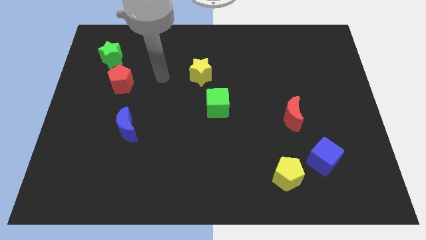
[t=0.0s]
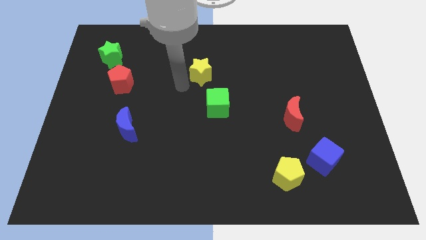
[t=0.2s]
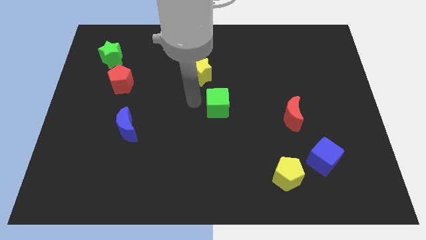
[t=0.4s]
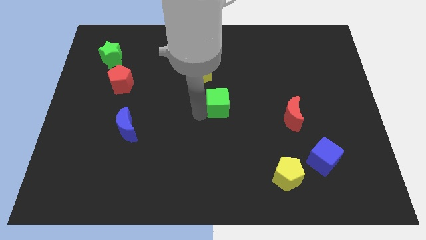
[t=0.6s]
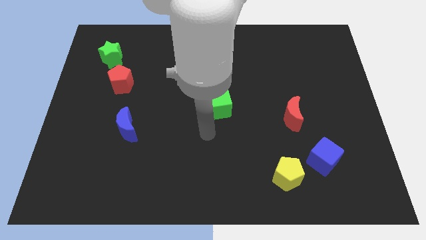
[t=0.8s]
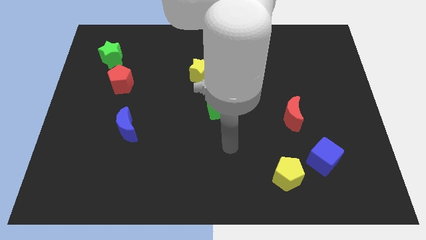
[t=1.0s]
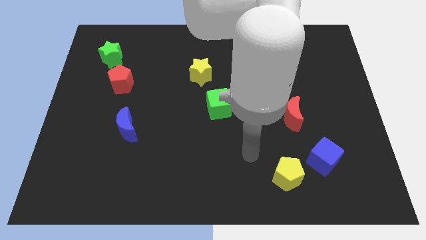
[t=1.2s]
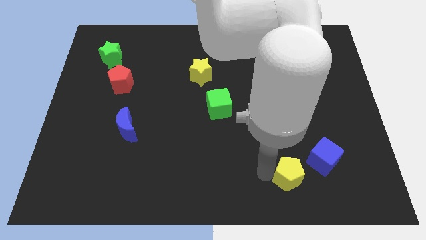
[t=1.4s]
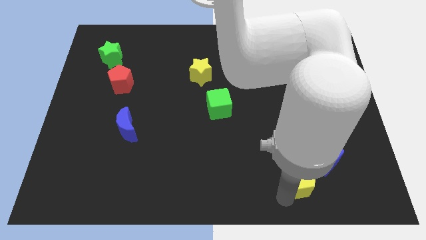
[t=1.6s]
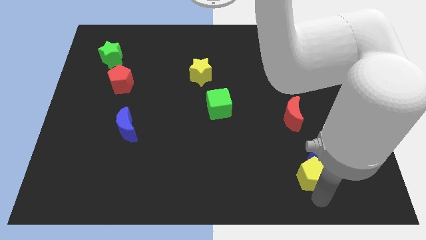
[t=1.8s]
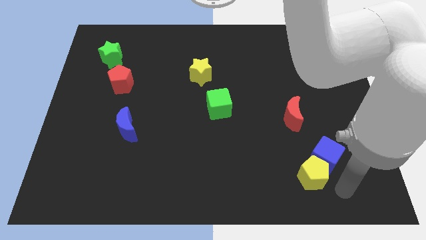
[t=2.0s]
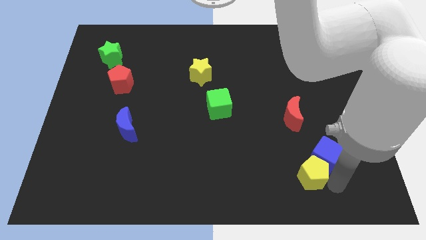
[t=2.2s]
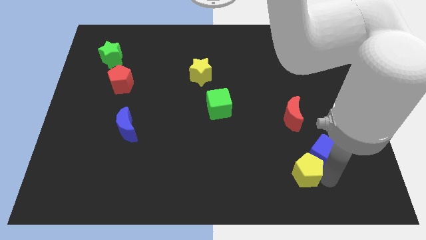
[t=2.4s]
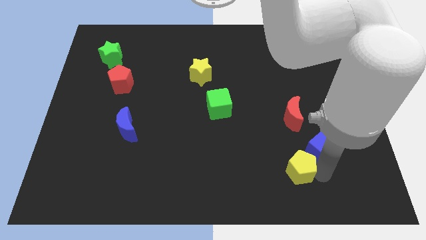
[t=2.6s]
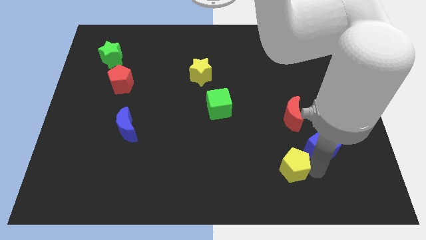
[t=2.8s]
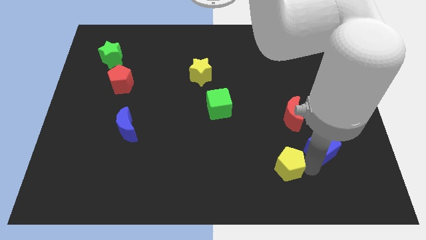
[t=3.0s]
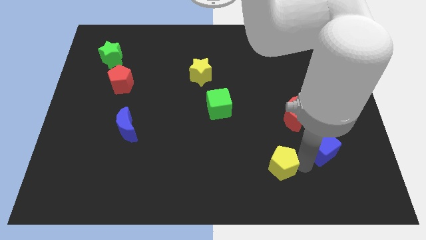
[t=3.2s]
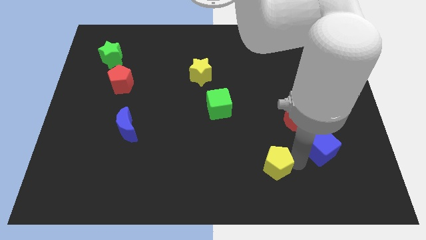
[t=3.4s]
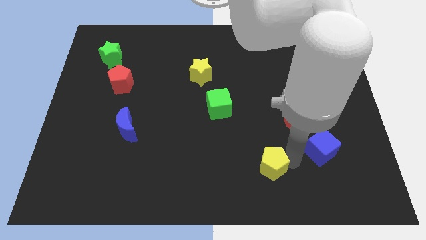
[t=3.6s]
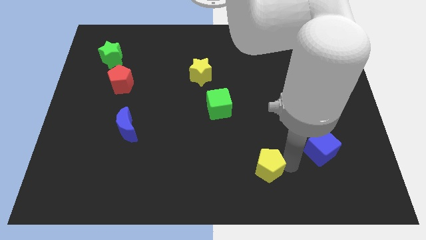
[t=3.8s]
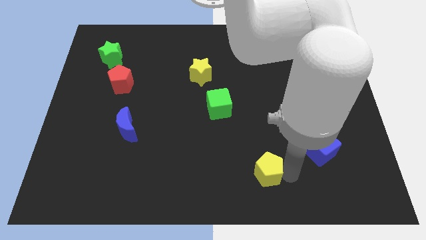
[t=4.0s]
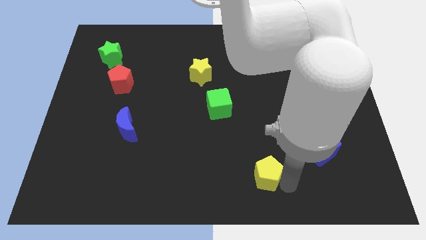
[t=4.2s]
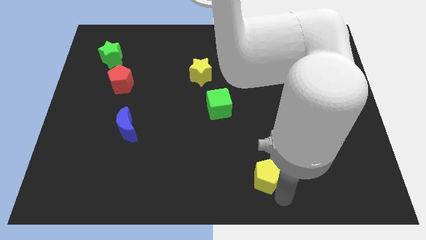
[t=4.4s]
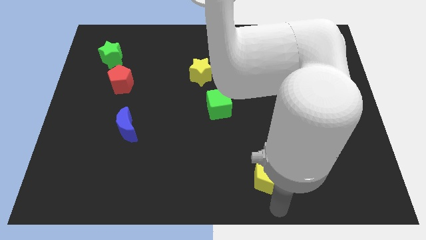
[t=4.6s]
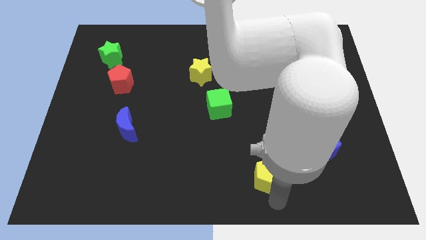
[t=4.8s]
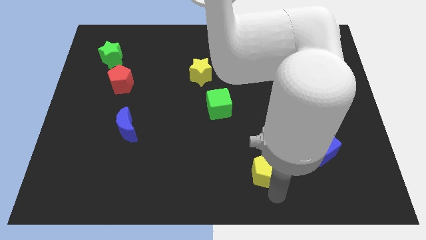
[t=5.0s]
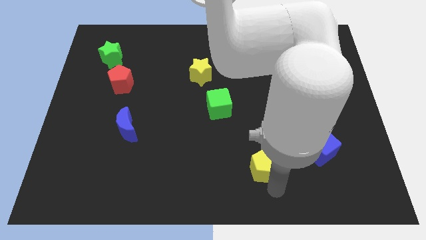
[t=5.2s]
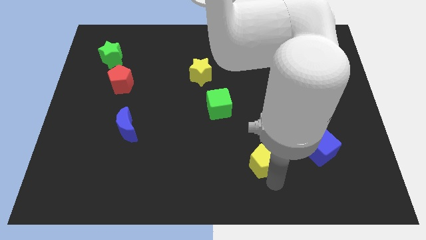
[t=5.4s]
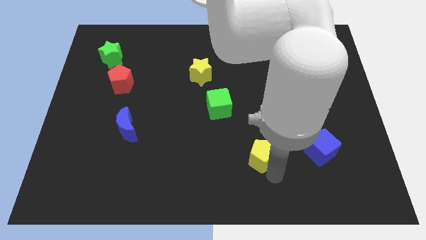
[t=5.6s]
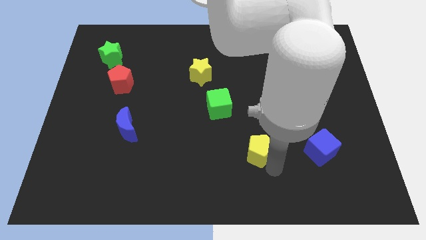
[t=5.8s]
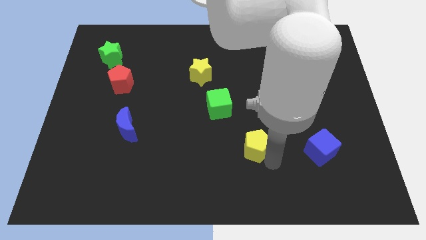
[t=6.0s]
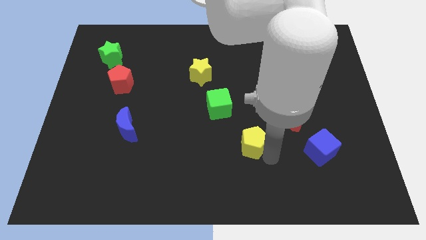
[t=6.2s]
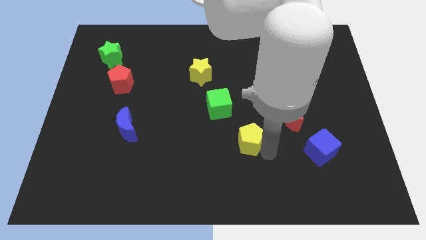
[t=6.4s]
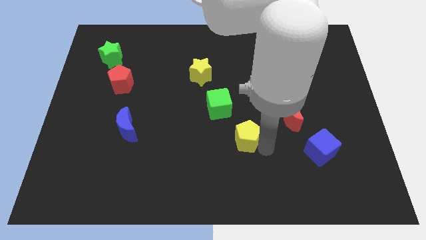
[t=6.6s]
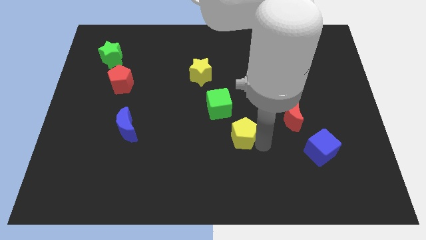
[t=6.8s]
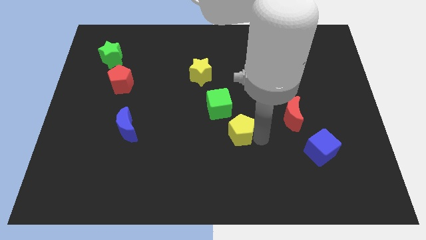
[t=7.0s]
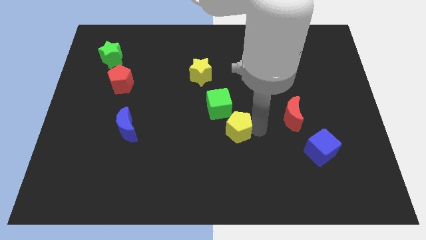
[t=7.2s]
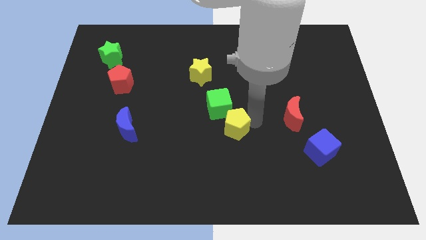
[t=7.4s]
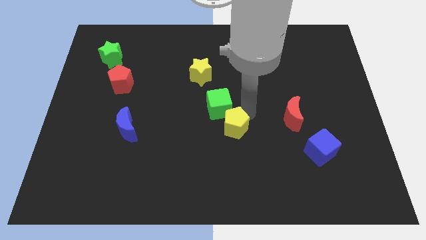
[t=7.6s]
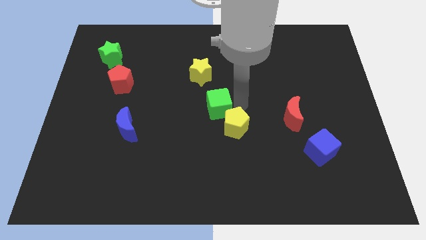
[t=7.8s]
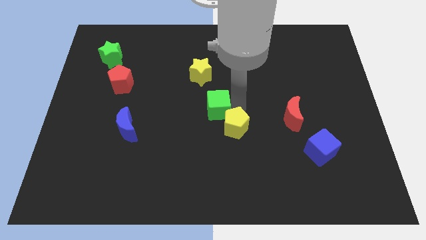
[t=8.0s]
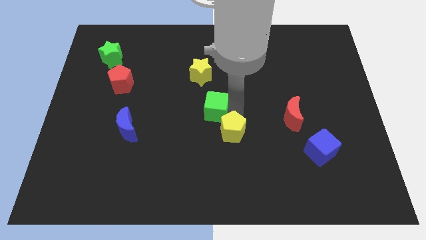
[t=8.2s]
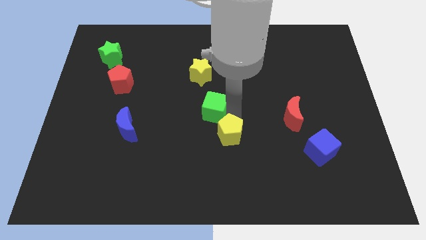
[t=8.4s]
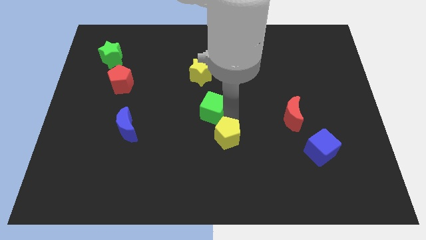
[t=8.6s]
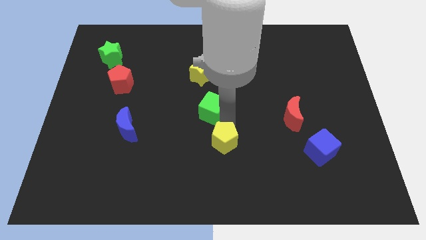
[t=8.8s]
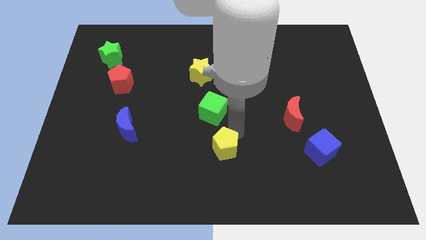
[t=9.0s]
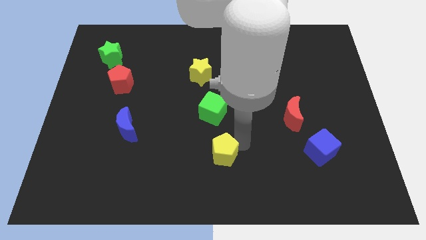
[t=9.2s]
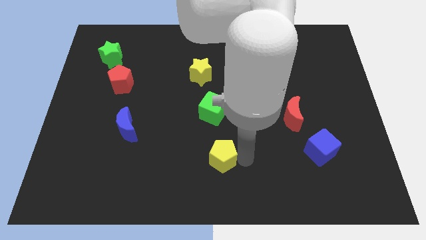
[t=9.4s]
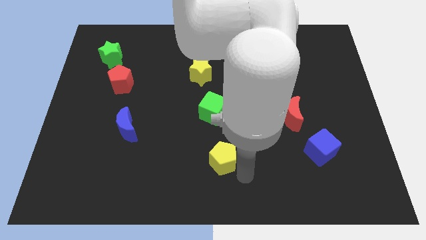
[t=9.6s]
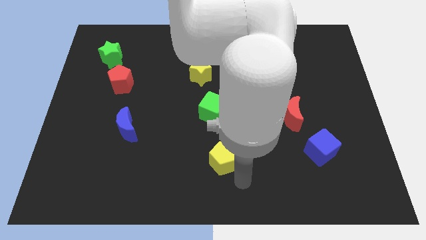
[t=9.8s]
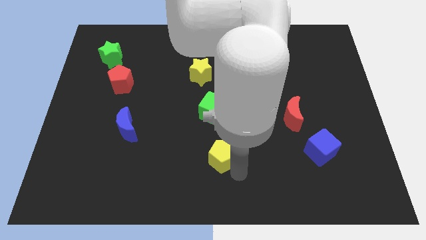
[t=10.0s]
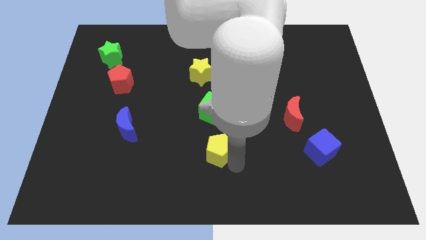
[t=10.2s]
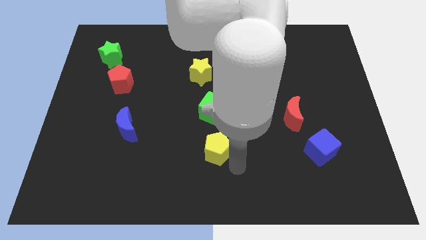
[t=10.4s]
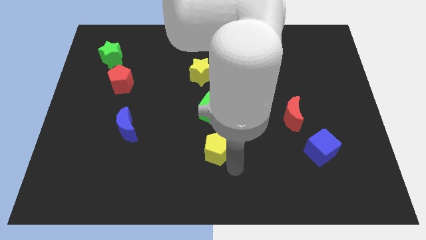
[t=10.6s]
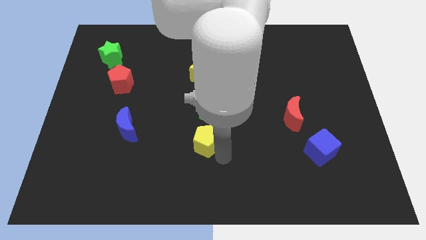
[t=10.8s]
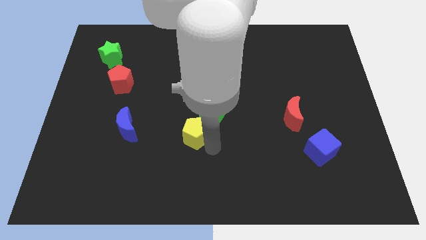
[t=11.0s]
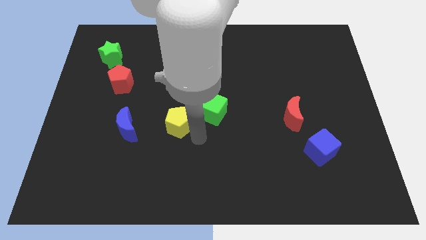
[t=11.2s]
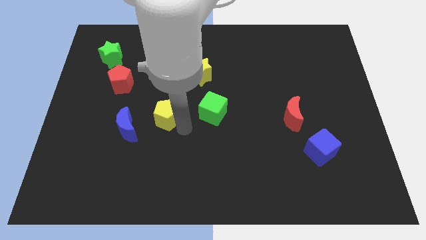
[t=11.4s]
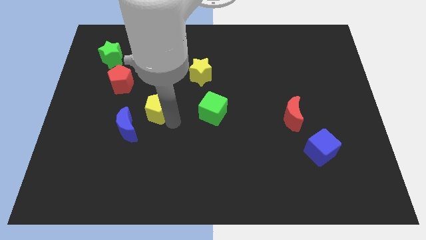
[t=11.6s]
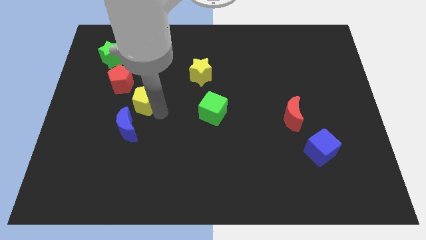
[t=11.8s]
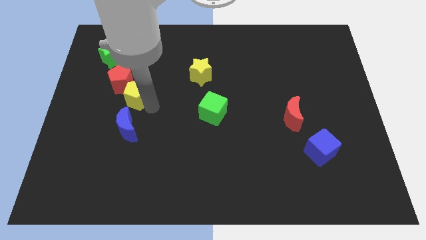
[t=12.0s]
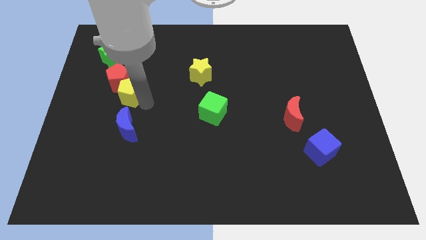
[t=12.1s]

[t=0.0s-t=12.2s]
move the yellow pentagon towards the red pentagon

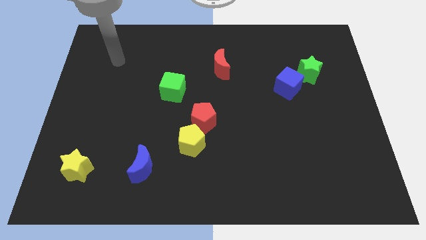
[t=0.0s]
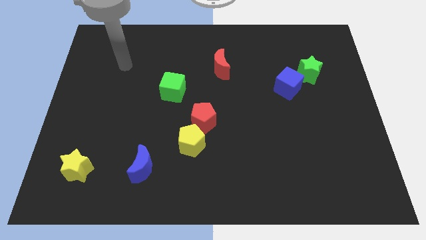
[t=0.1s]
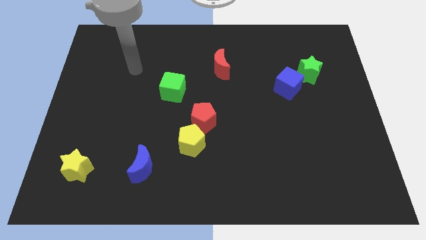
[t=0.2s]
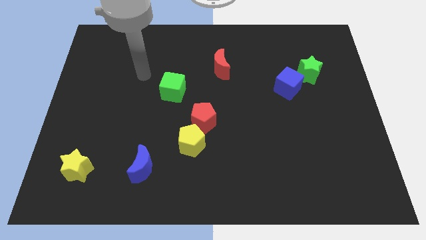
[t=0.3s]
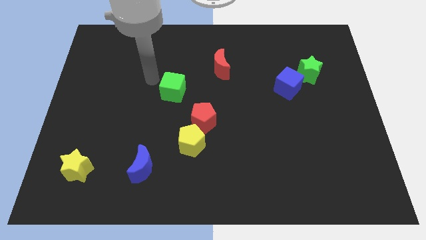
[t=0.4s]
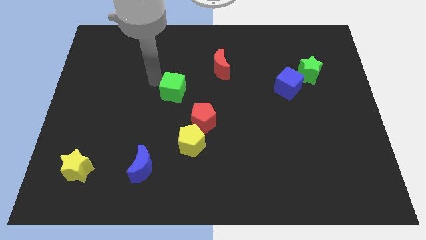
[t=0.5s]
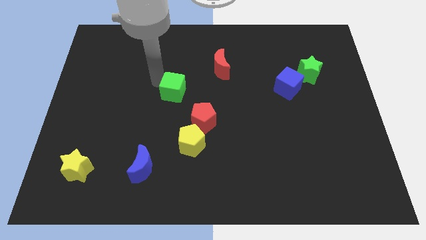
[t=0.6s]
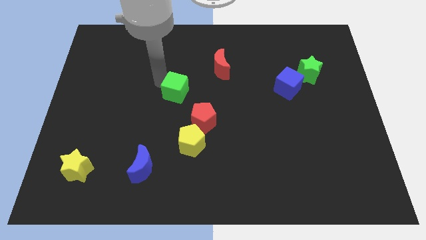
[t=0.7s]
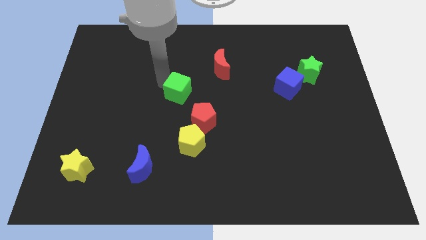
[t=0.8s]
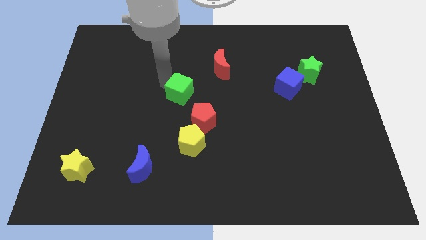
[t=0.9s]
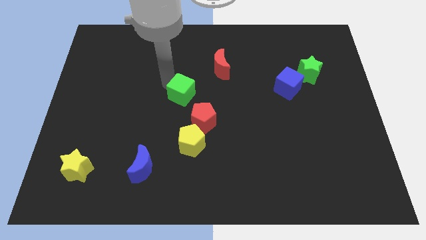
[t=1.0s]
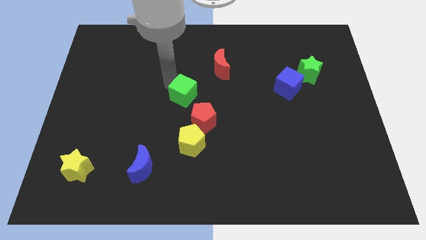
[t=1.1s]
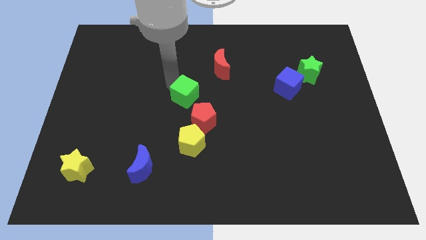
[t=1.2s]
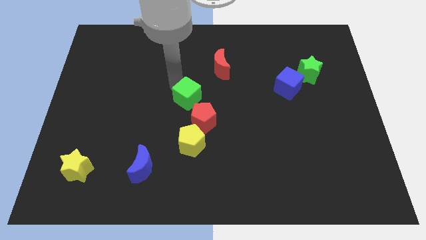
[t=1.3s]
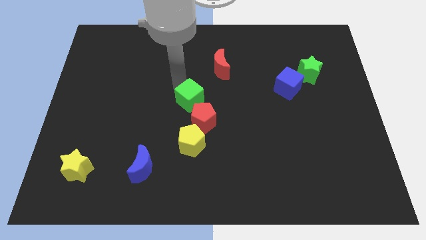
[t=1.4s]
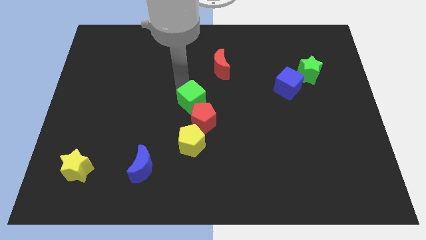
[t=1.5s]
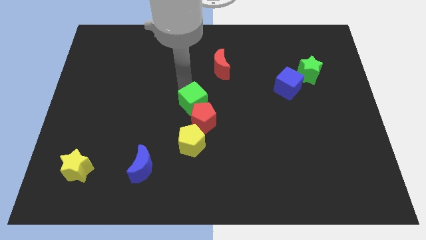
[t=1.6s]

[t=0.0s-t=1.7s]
move the green cube towards the red pentagon
